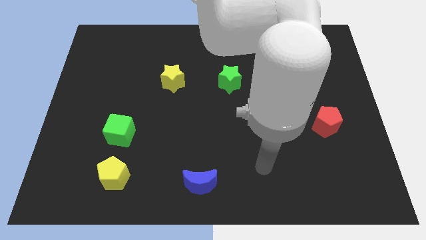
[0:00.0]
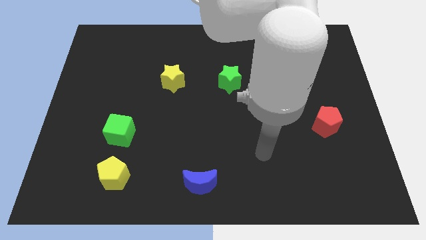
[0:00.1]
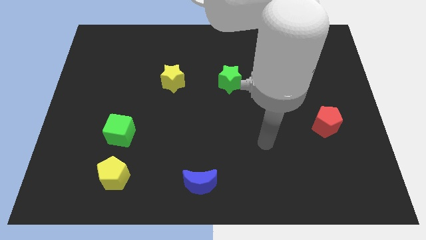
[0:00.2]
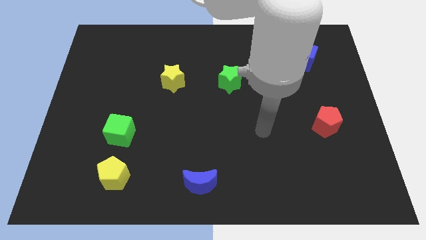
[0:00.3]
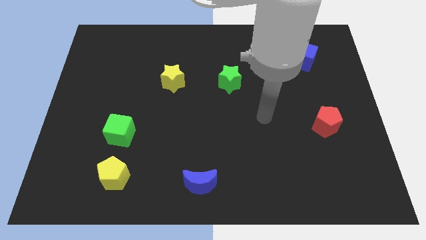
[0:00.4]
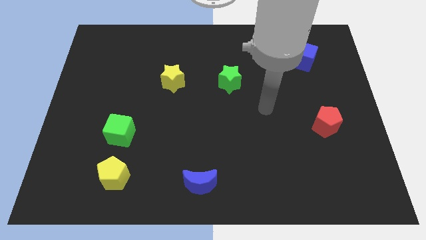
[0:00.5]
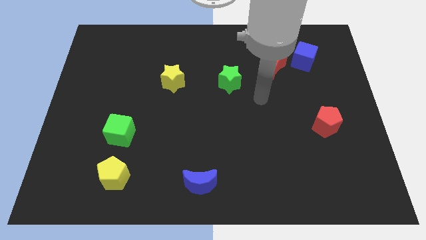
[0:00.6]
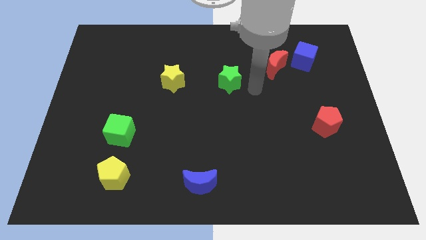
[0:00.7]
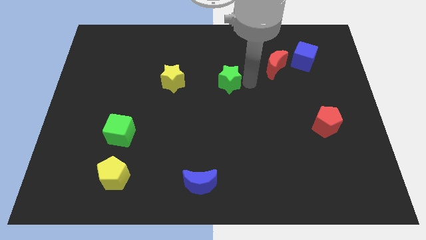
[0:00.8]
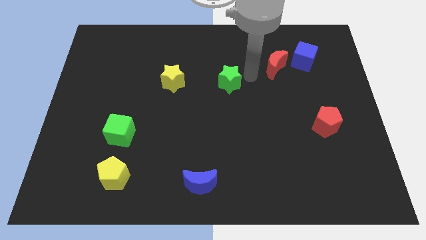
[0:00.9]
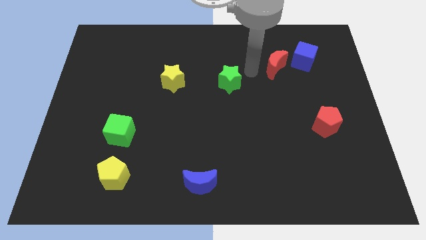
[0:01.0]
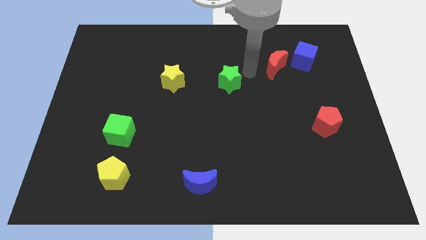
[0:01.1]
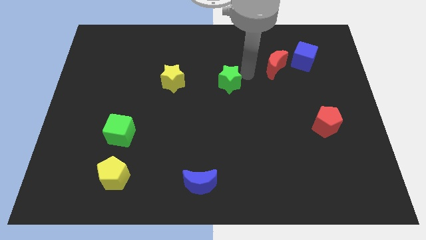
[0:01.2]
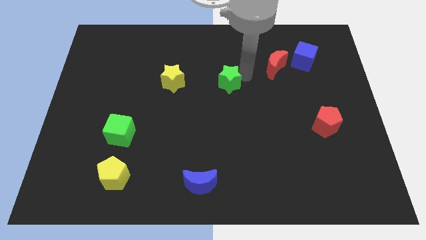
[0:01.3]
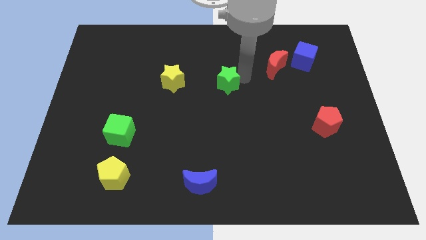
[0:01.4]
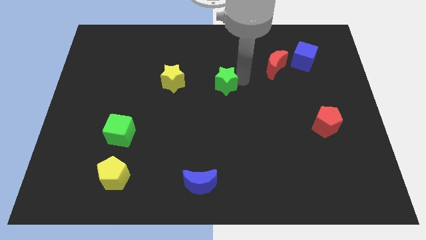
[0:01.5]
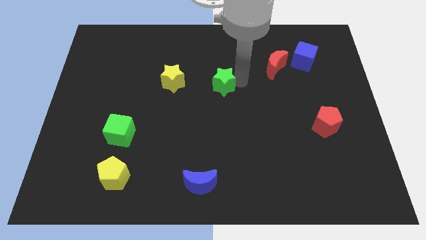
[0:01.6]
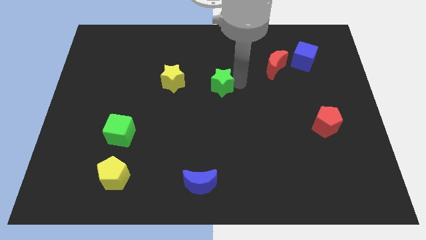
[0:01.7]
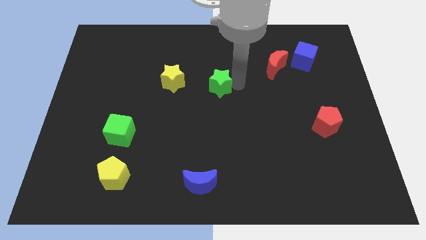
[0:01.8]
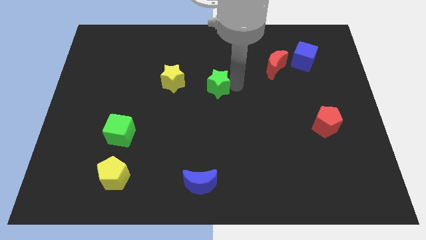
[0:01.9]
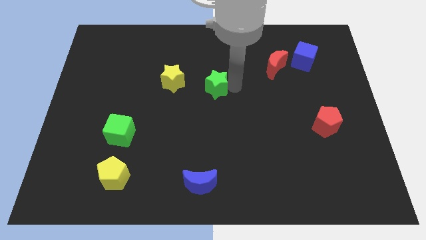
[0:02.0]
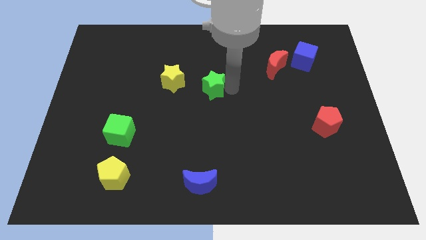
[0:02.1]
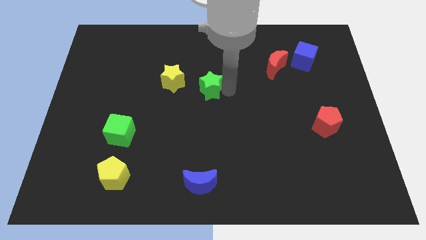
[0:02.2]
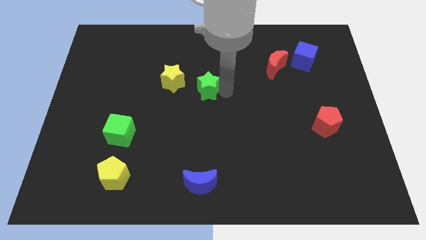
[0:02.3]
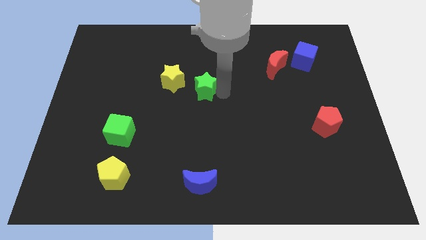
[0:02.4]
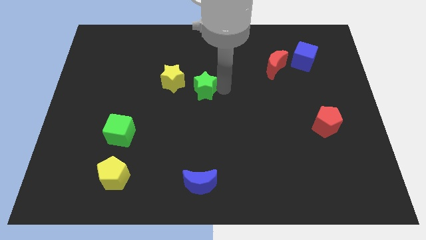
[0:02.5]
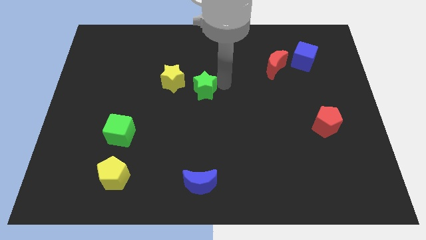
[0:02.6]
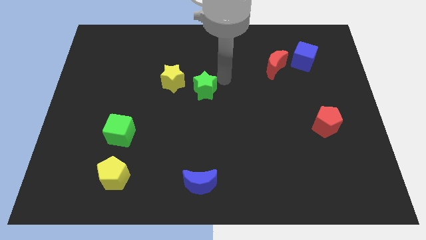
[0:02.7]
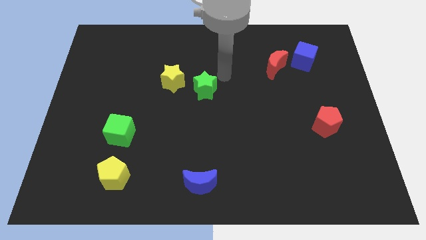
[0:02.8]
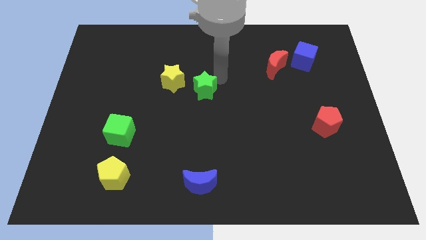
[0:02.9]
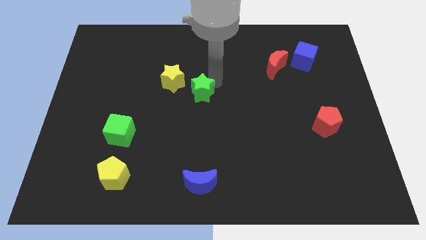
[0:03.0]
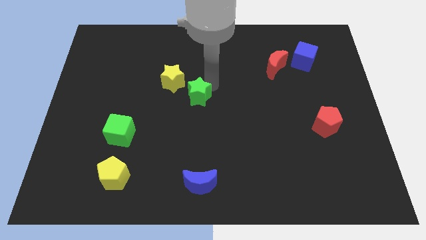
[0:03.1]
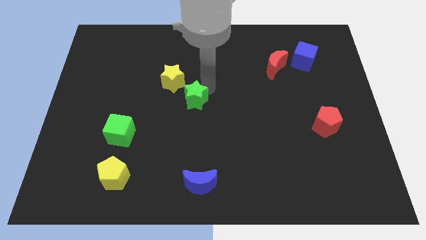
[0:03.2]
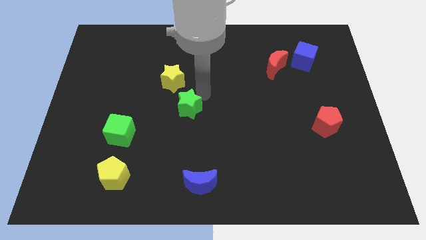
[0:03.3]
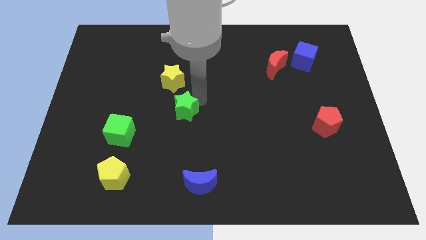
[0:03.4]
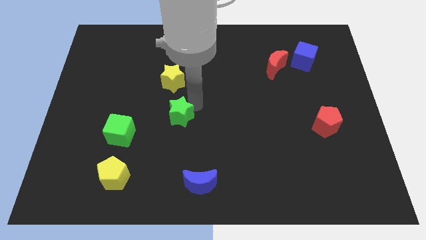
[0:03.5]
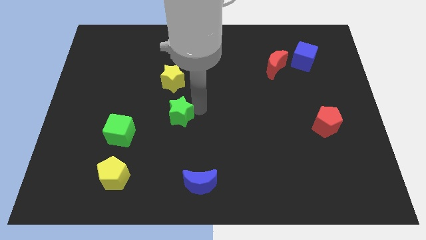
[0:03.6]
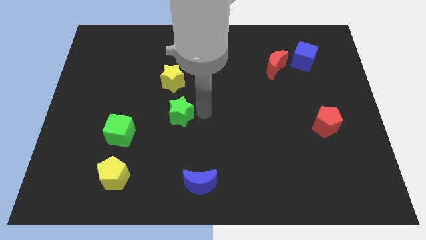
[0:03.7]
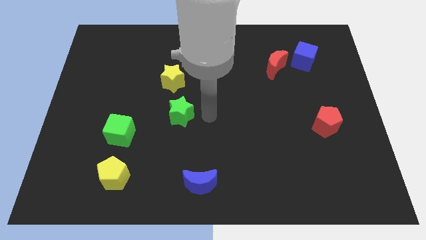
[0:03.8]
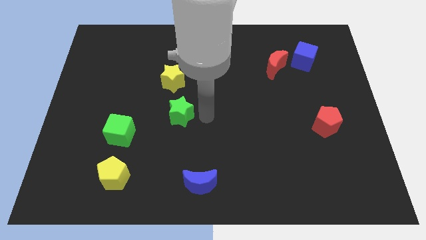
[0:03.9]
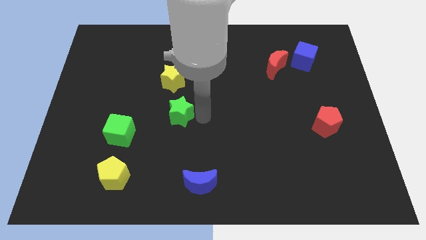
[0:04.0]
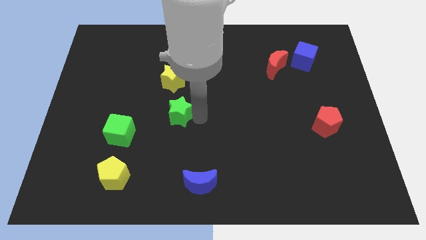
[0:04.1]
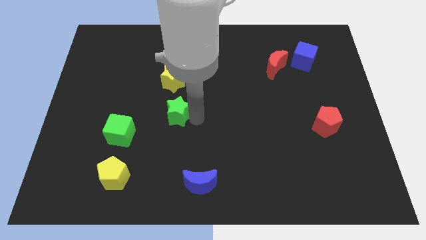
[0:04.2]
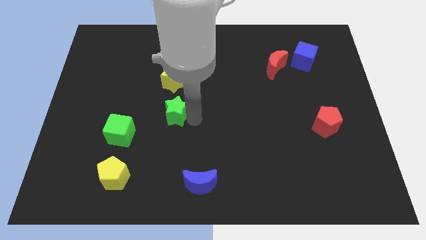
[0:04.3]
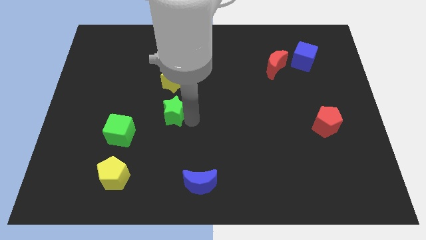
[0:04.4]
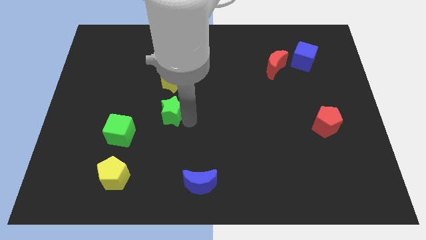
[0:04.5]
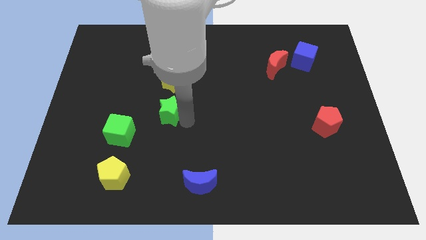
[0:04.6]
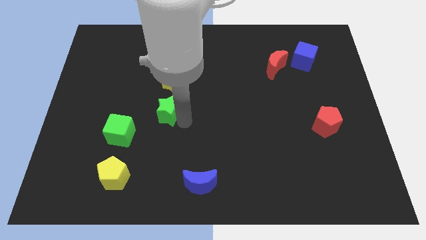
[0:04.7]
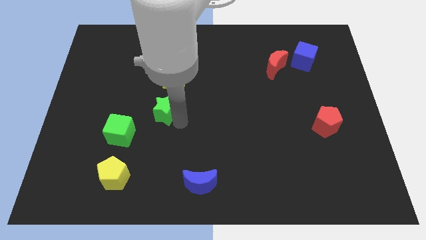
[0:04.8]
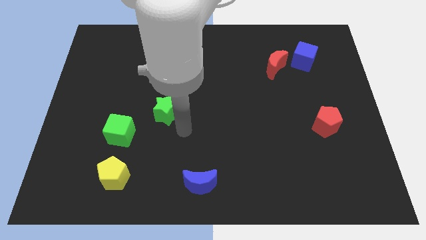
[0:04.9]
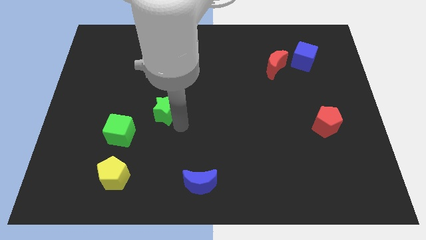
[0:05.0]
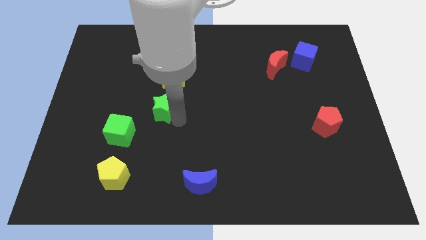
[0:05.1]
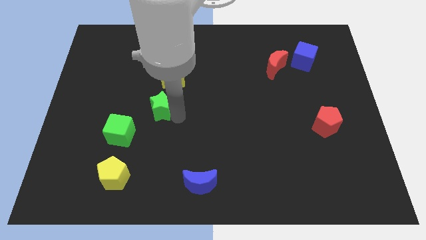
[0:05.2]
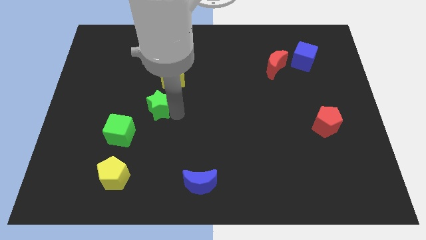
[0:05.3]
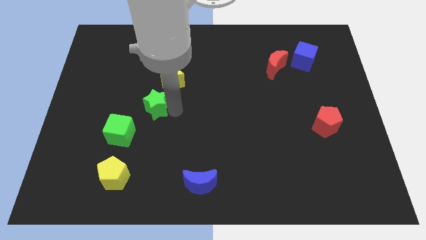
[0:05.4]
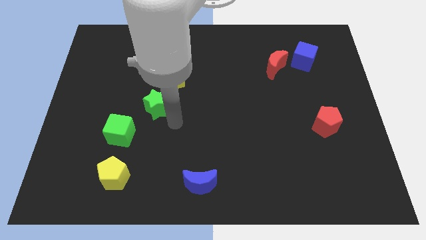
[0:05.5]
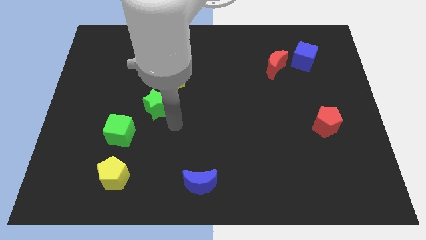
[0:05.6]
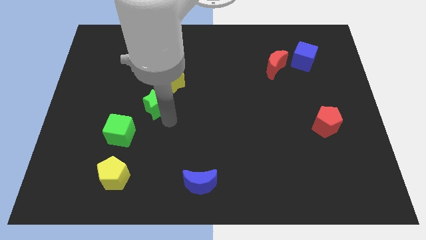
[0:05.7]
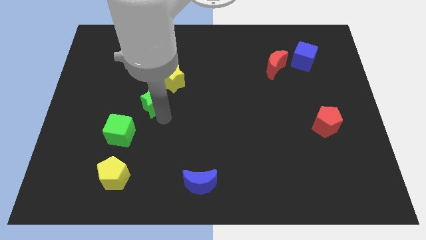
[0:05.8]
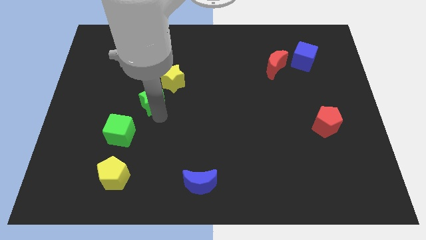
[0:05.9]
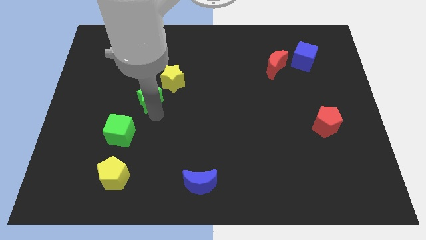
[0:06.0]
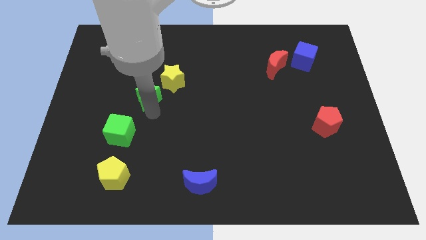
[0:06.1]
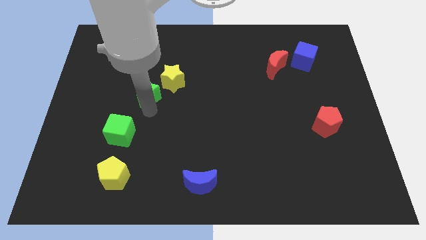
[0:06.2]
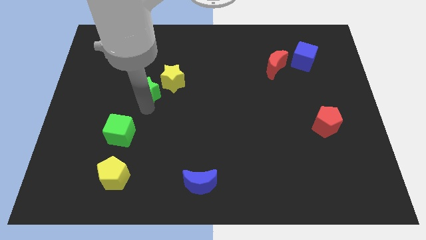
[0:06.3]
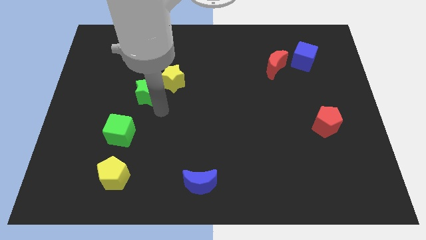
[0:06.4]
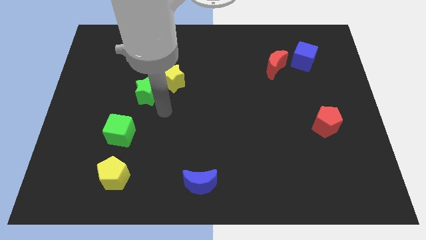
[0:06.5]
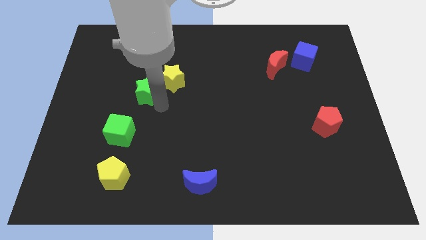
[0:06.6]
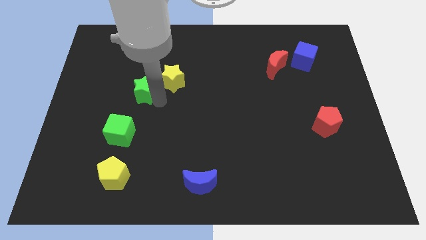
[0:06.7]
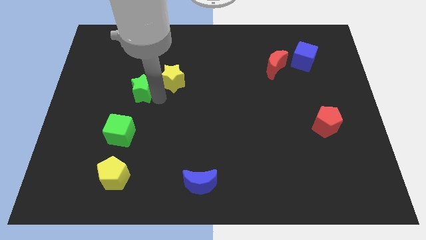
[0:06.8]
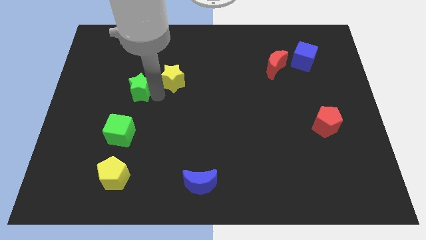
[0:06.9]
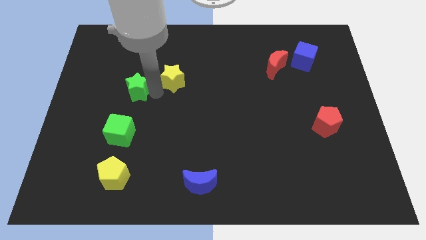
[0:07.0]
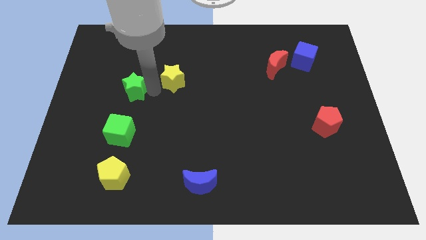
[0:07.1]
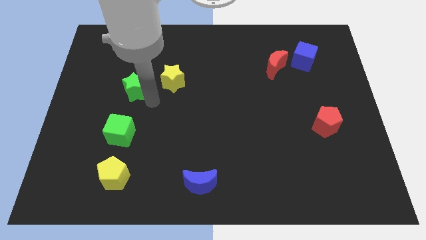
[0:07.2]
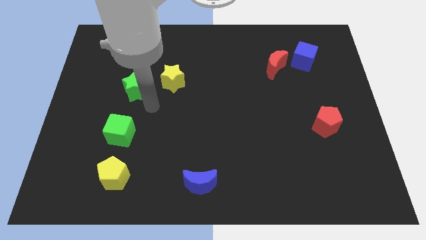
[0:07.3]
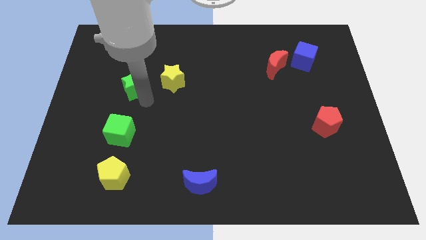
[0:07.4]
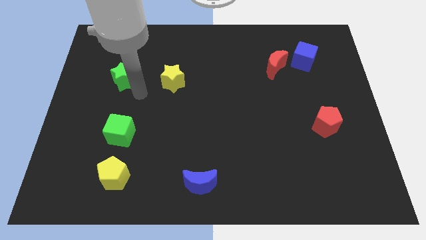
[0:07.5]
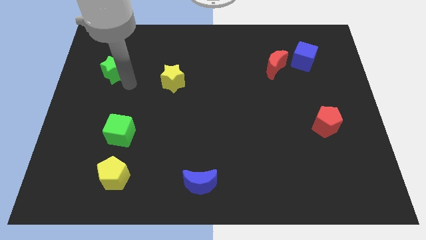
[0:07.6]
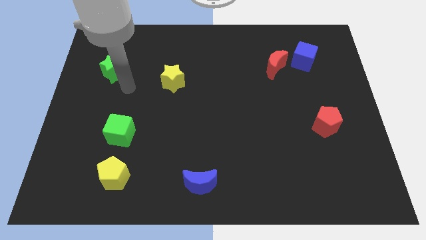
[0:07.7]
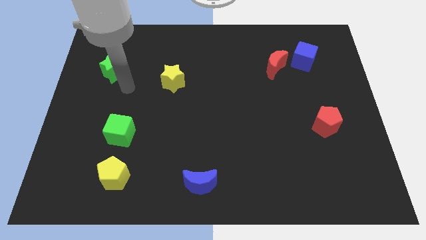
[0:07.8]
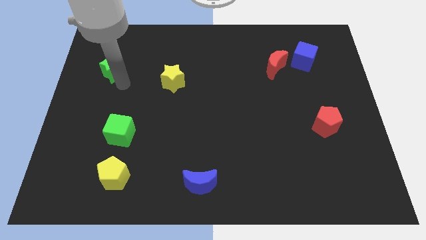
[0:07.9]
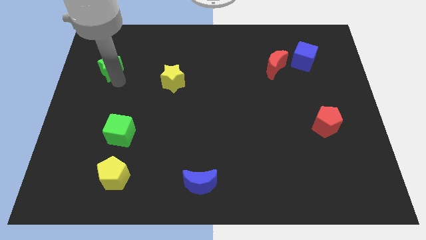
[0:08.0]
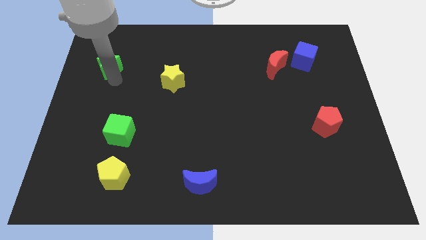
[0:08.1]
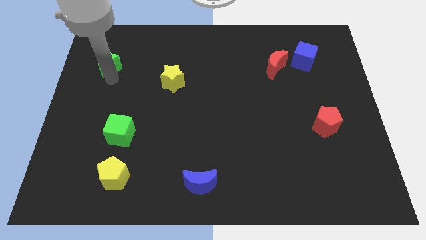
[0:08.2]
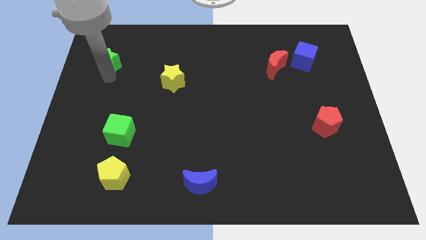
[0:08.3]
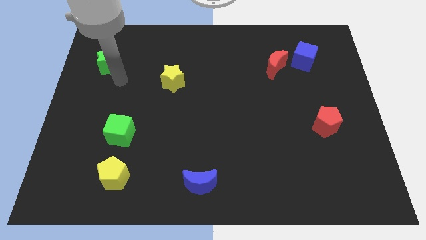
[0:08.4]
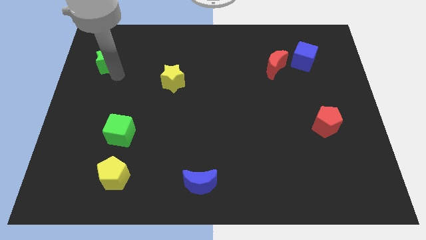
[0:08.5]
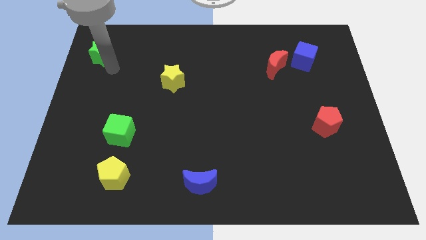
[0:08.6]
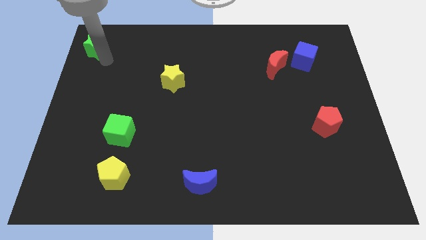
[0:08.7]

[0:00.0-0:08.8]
move the green star to the top left corner
